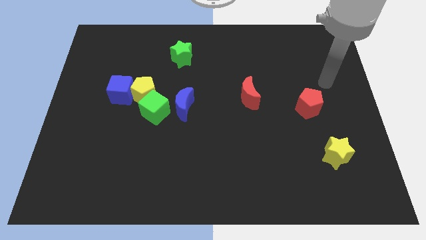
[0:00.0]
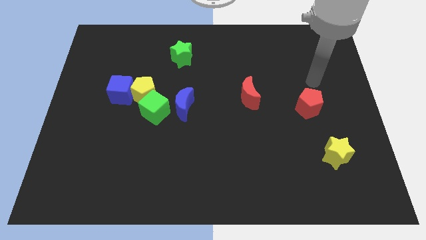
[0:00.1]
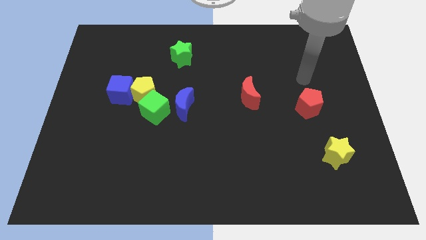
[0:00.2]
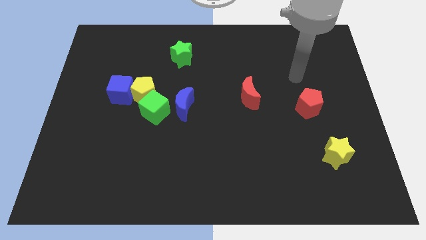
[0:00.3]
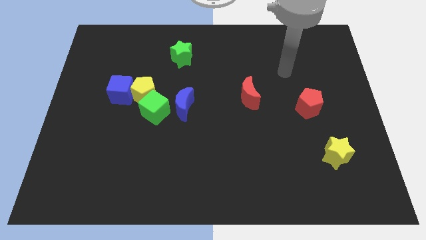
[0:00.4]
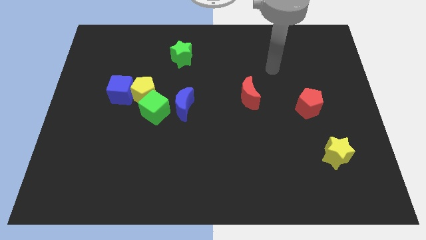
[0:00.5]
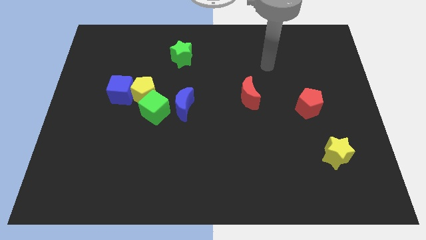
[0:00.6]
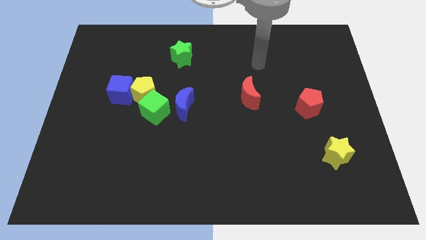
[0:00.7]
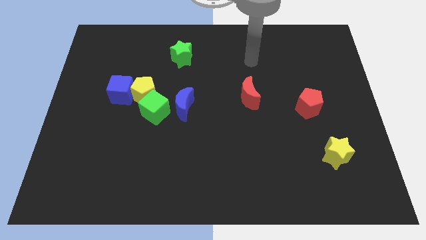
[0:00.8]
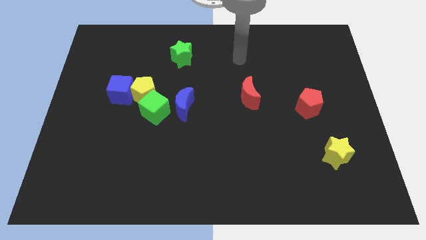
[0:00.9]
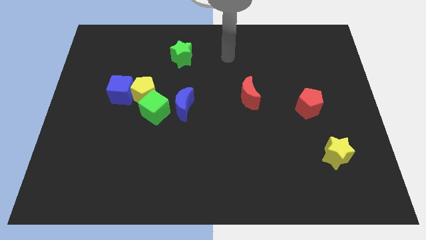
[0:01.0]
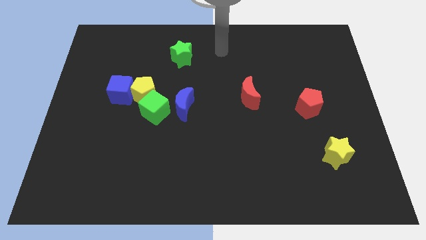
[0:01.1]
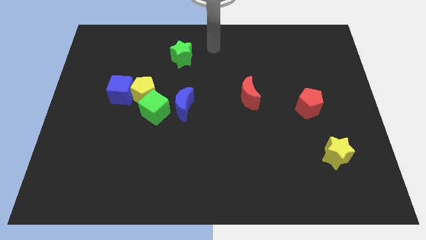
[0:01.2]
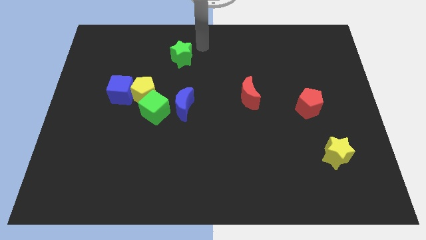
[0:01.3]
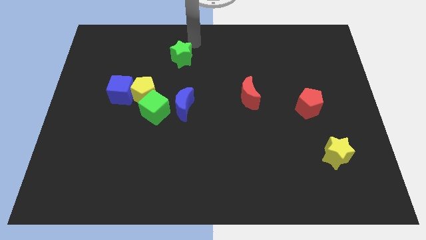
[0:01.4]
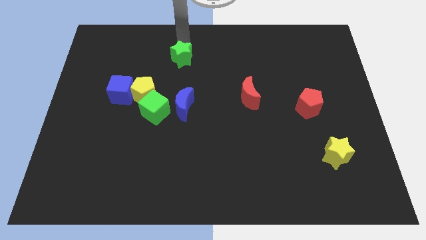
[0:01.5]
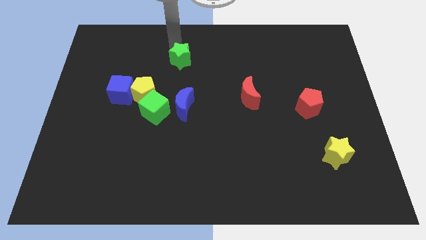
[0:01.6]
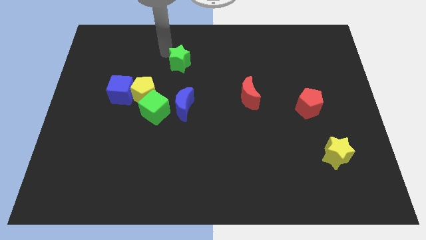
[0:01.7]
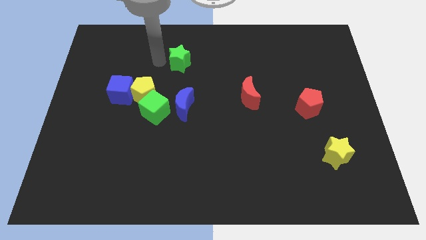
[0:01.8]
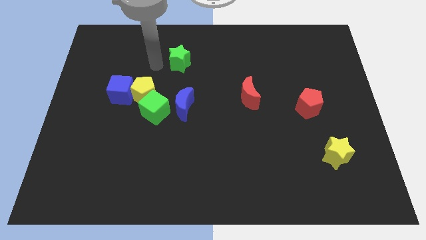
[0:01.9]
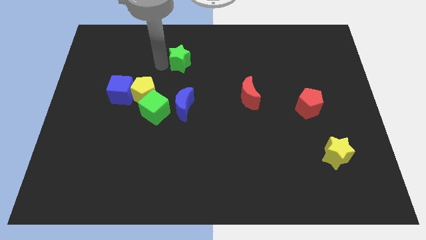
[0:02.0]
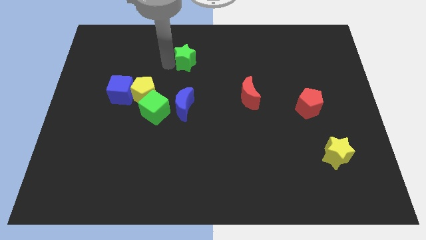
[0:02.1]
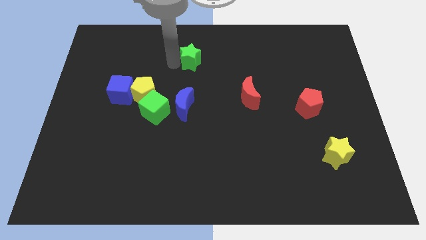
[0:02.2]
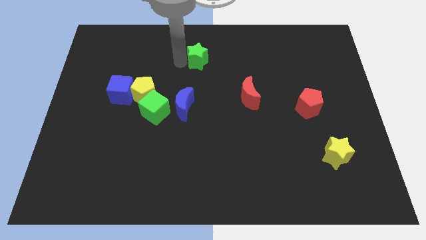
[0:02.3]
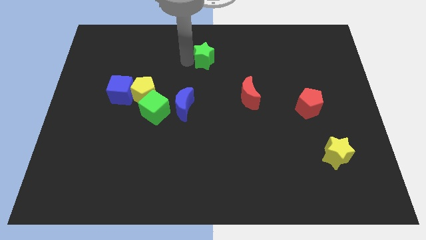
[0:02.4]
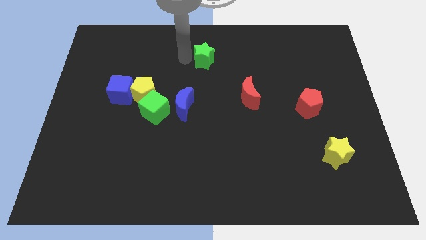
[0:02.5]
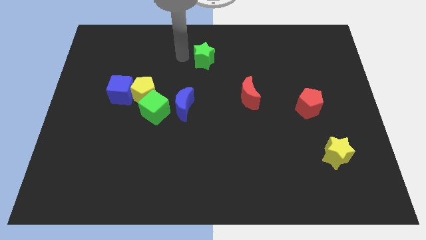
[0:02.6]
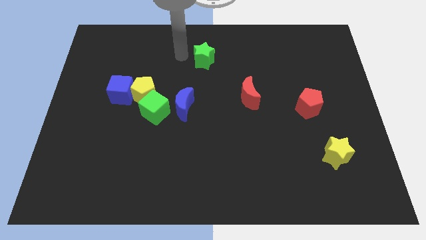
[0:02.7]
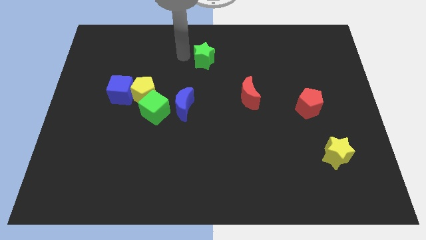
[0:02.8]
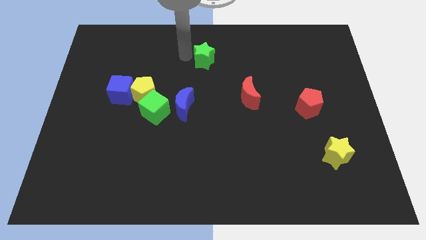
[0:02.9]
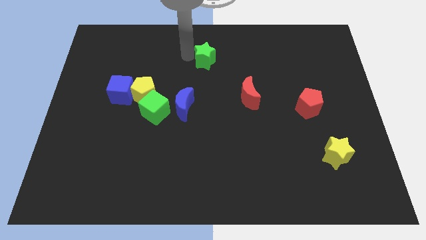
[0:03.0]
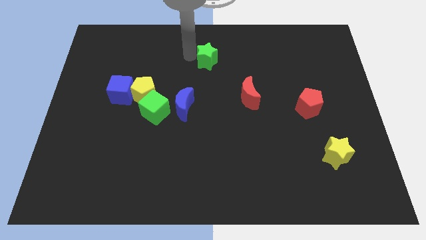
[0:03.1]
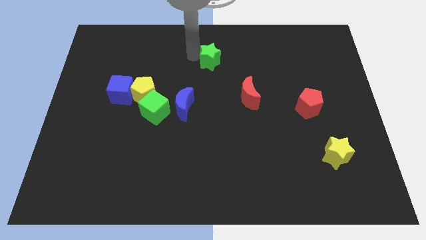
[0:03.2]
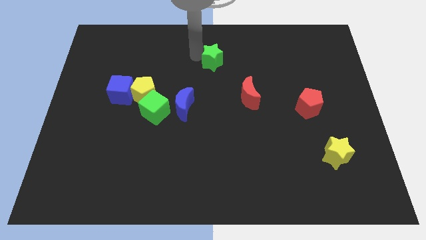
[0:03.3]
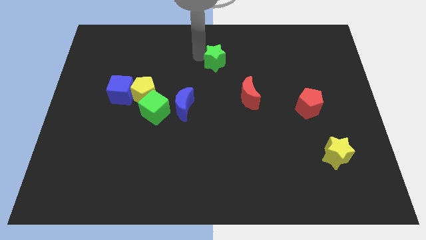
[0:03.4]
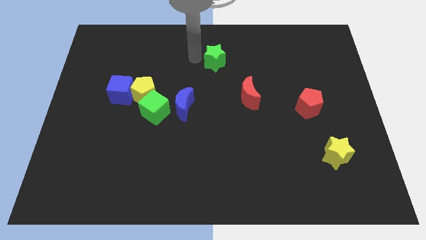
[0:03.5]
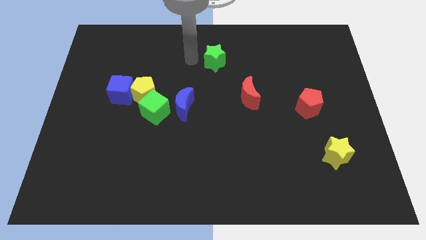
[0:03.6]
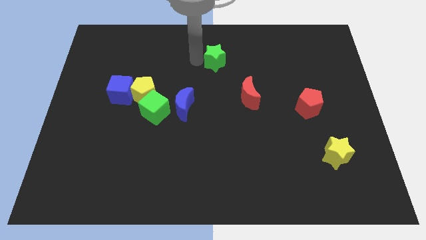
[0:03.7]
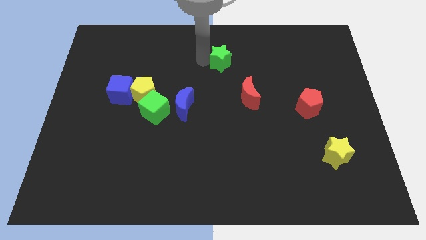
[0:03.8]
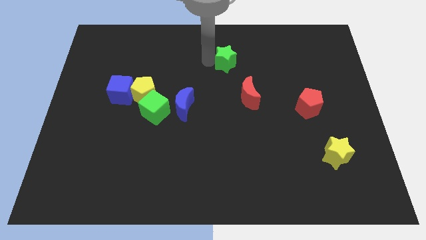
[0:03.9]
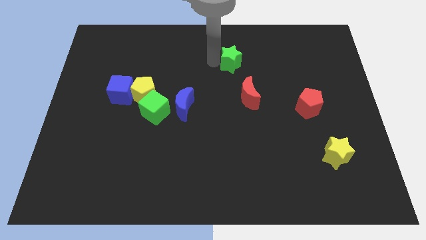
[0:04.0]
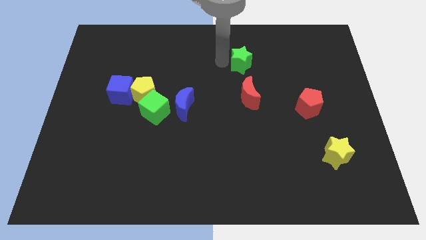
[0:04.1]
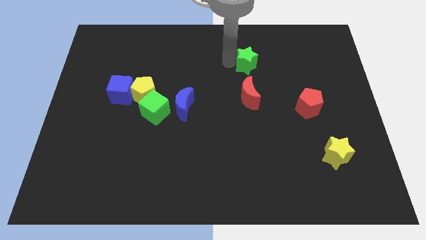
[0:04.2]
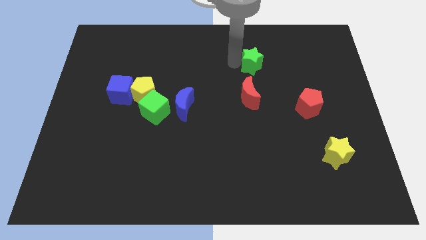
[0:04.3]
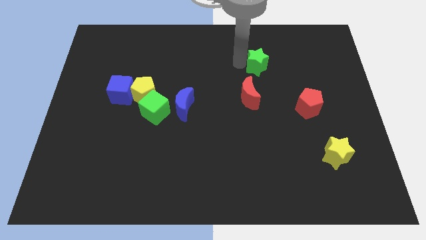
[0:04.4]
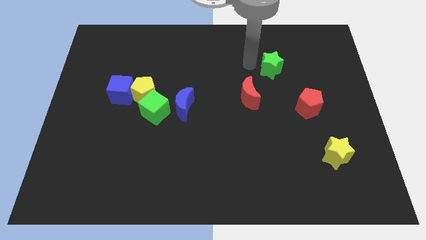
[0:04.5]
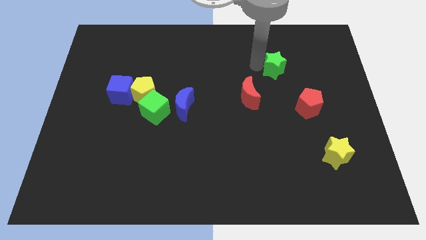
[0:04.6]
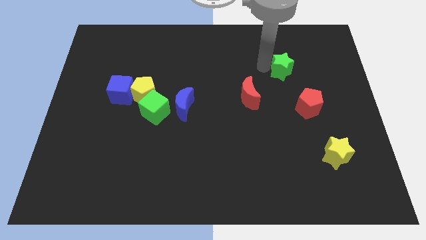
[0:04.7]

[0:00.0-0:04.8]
slide the green star to the top side of the red pentagon

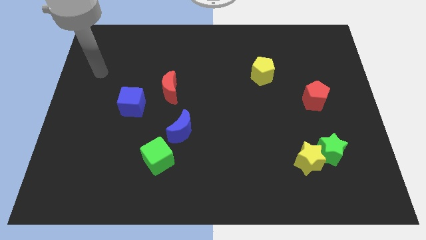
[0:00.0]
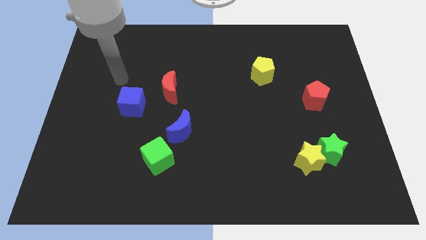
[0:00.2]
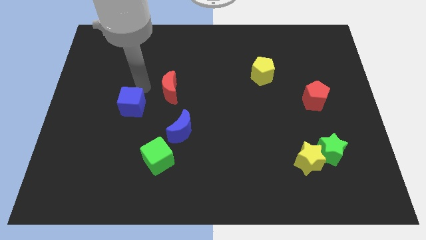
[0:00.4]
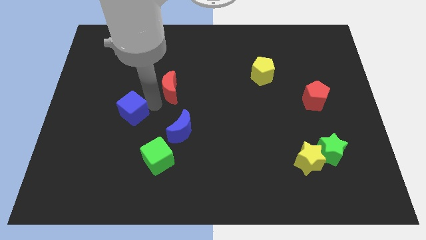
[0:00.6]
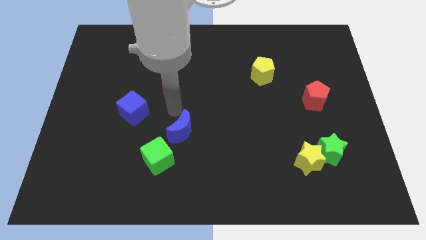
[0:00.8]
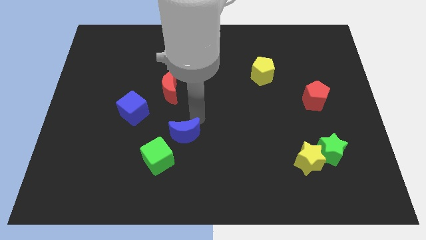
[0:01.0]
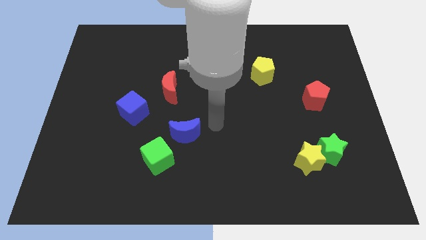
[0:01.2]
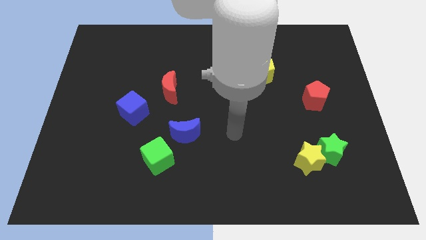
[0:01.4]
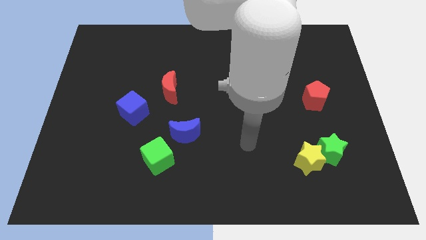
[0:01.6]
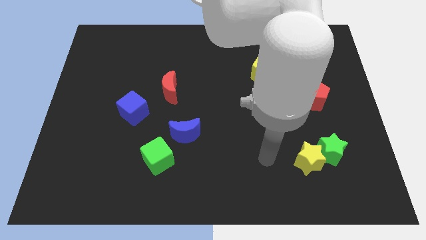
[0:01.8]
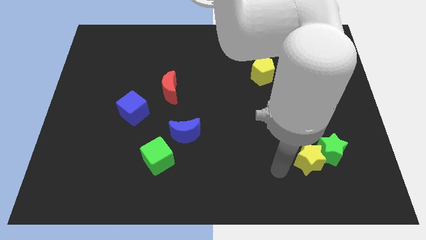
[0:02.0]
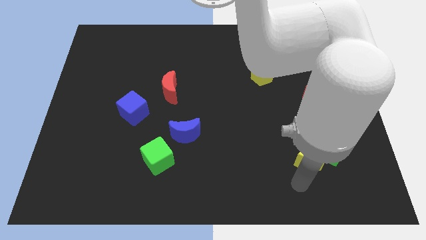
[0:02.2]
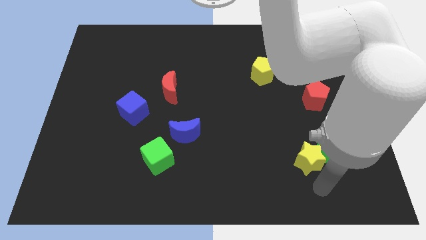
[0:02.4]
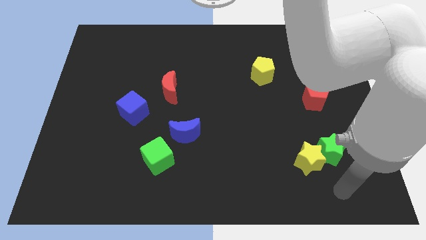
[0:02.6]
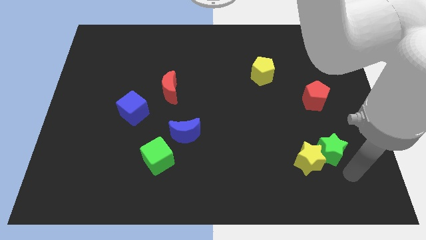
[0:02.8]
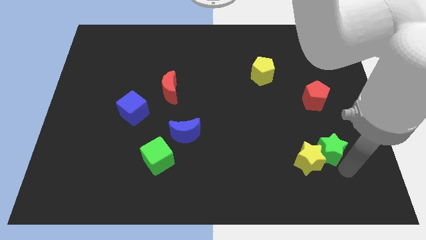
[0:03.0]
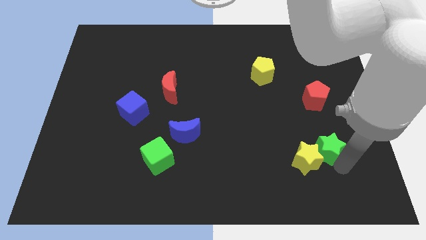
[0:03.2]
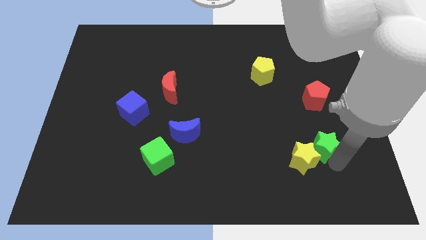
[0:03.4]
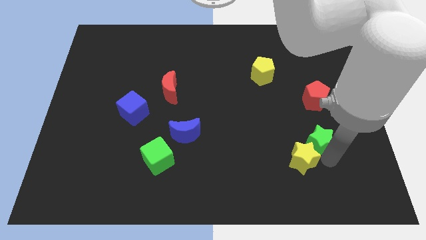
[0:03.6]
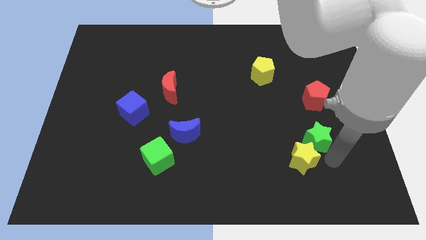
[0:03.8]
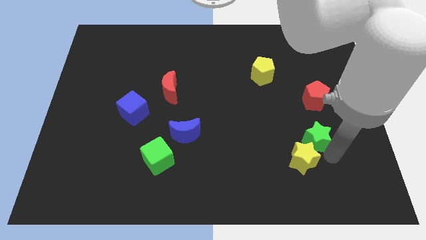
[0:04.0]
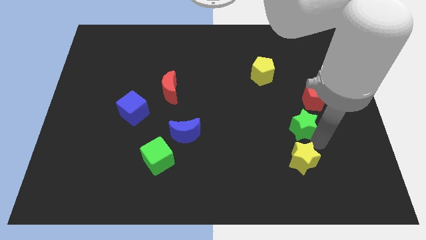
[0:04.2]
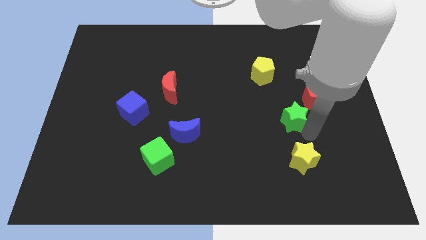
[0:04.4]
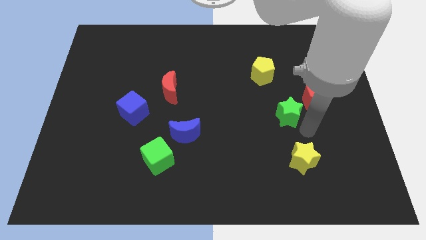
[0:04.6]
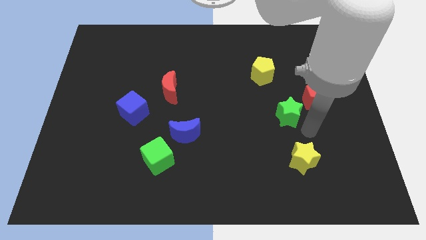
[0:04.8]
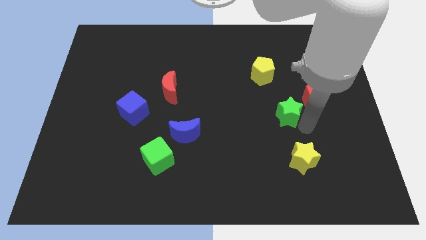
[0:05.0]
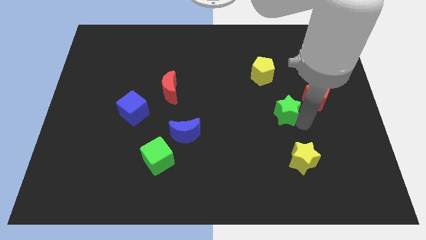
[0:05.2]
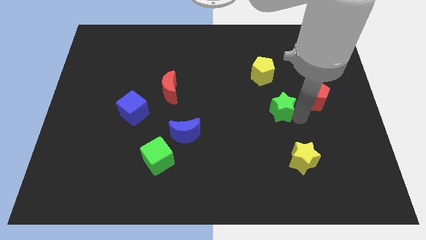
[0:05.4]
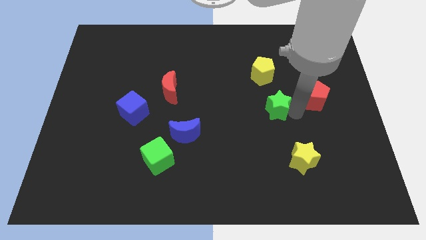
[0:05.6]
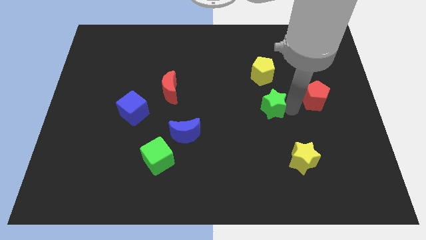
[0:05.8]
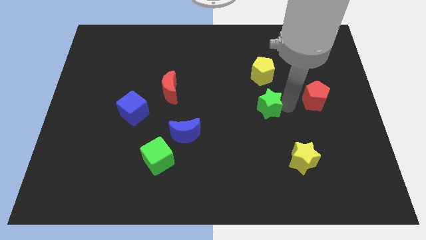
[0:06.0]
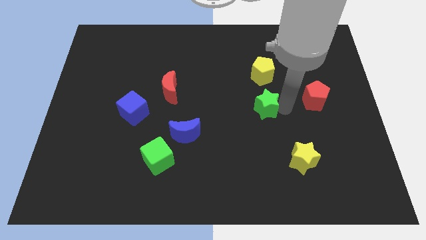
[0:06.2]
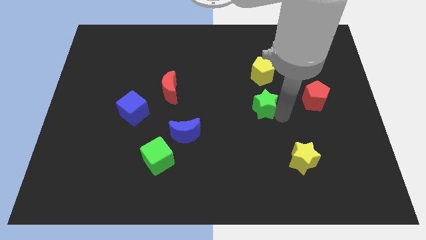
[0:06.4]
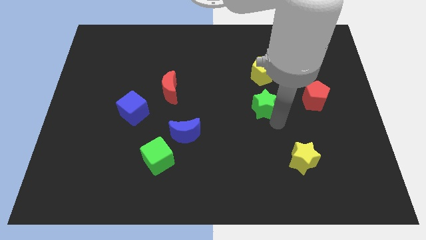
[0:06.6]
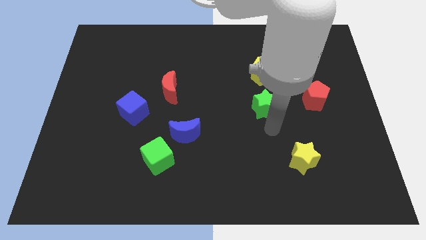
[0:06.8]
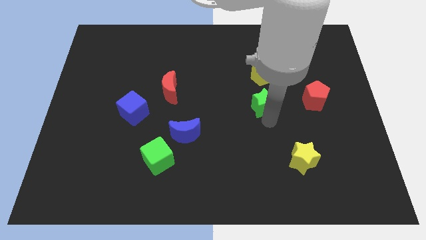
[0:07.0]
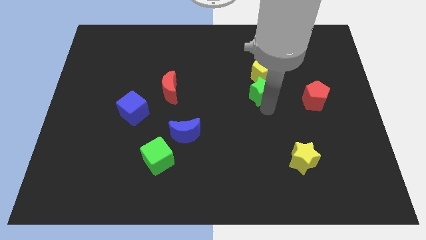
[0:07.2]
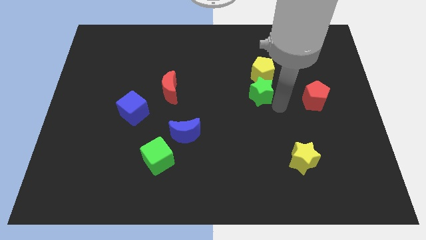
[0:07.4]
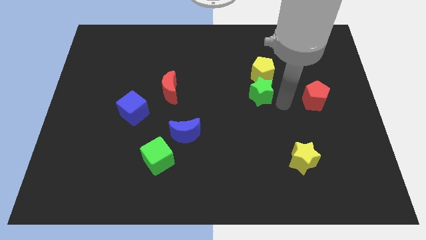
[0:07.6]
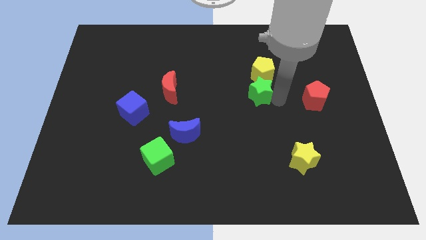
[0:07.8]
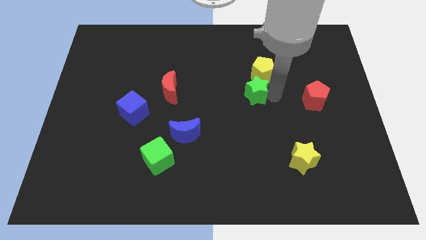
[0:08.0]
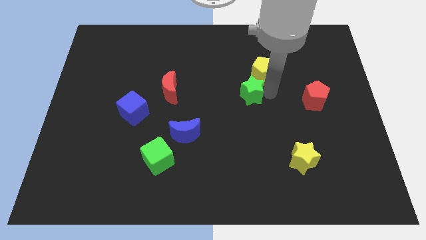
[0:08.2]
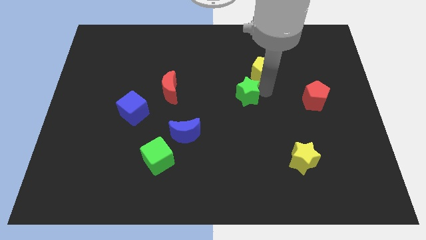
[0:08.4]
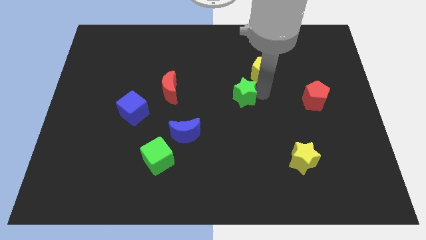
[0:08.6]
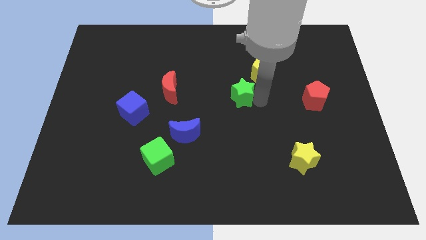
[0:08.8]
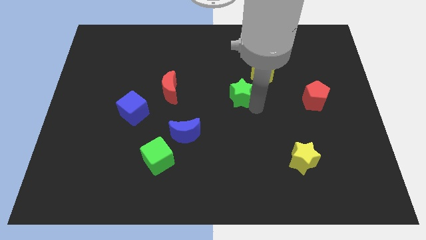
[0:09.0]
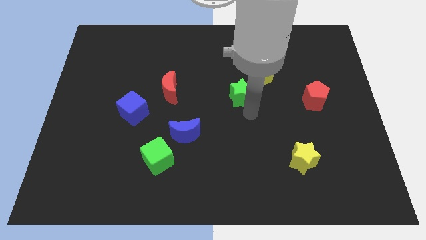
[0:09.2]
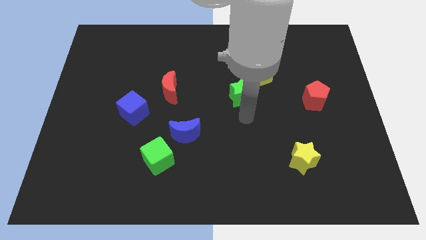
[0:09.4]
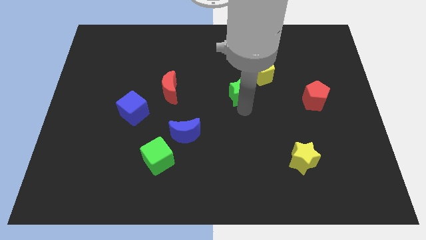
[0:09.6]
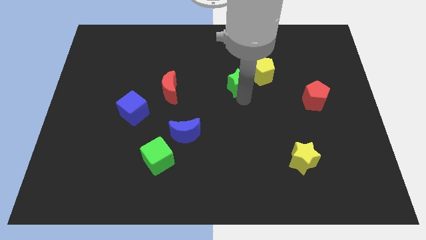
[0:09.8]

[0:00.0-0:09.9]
put the green star left of the yellow pentagon
